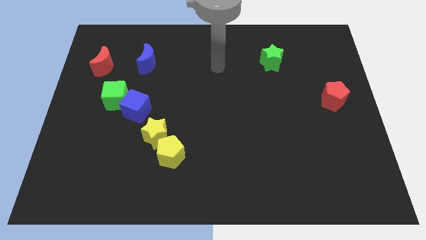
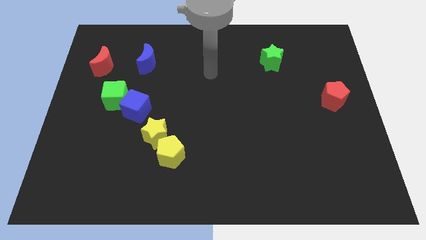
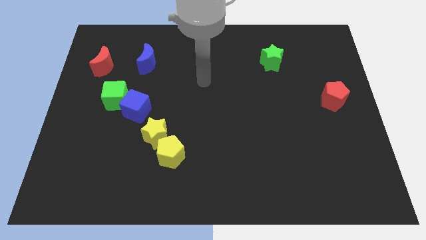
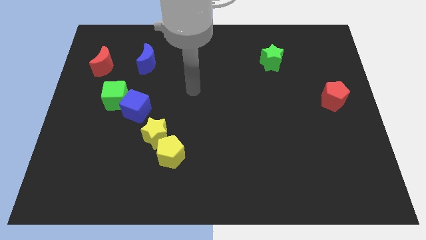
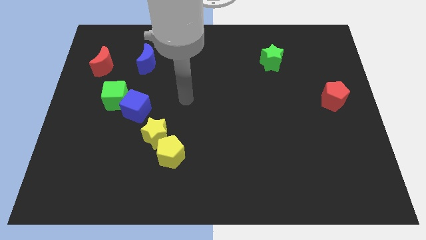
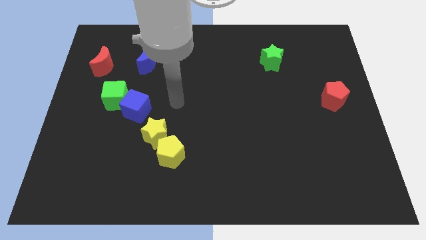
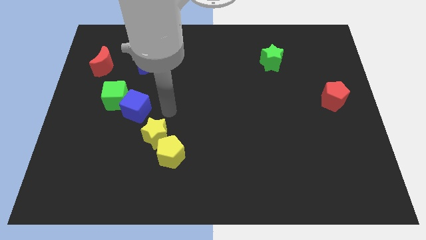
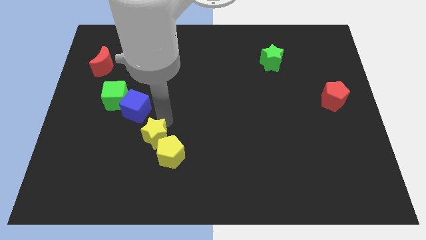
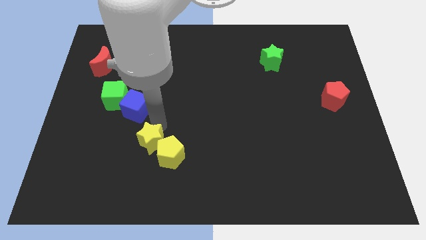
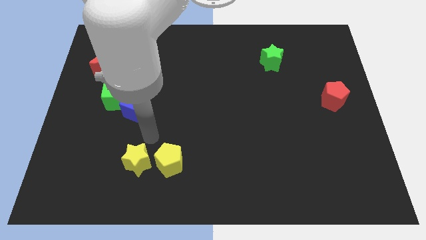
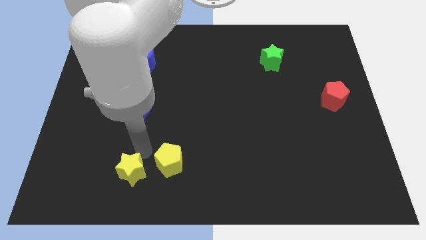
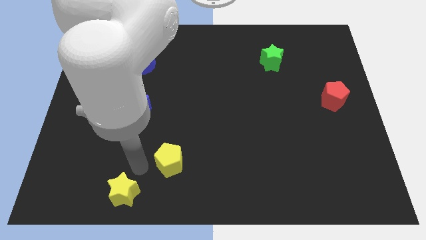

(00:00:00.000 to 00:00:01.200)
move the yellow pentagon away from the yellow star

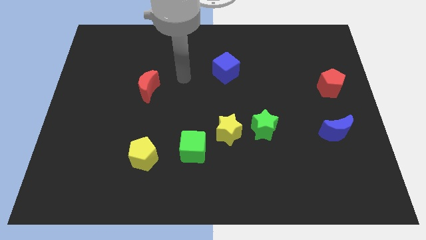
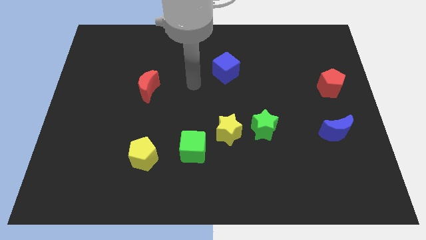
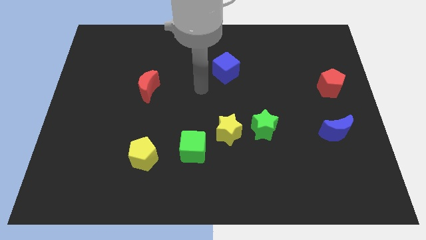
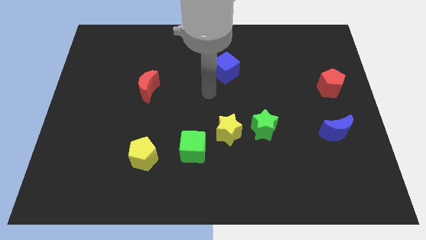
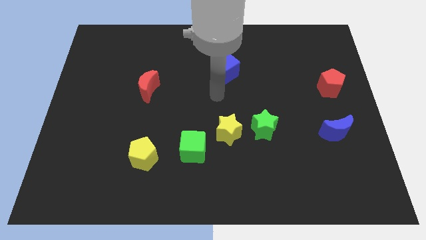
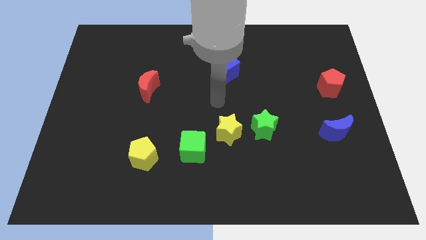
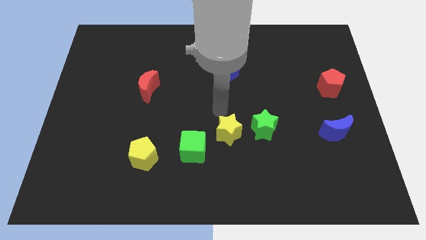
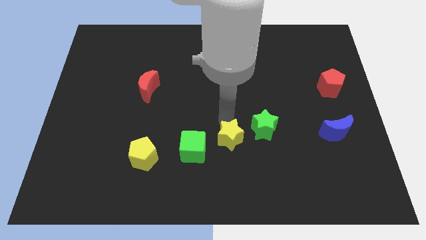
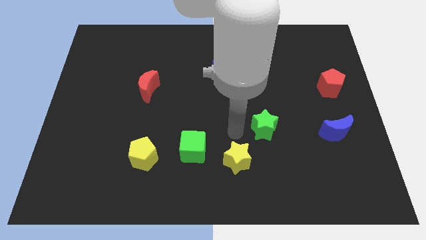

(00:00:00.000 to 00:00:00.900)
move the green star away from the yellow star

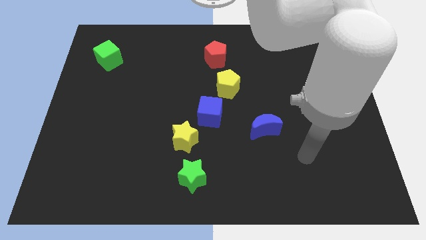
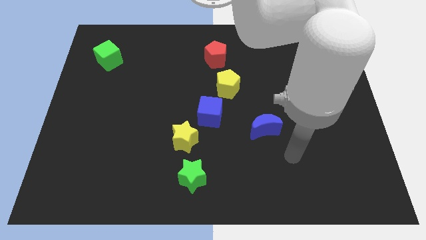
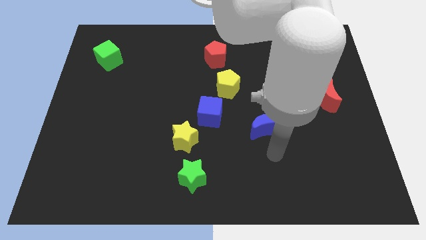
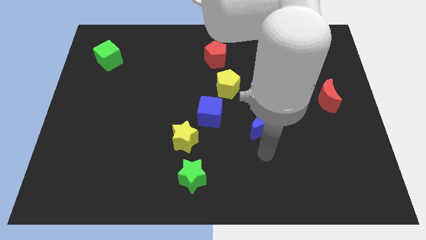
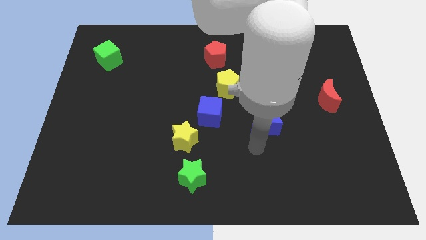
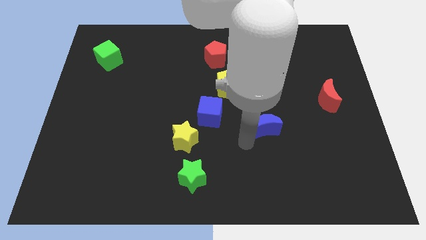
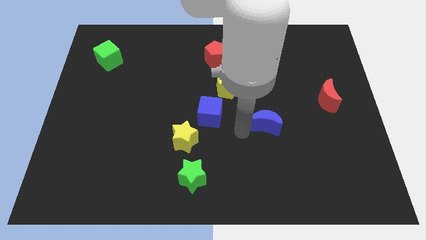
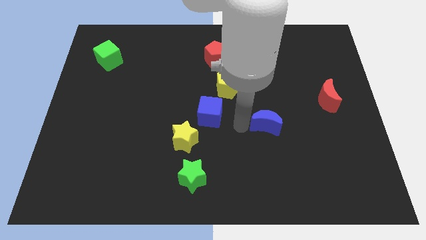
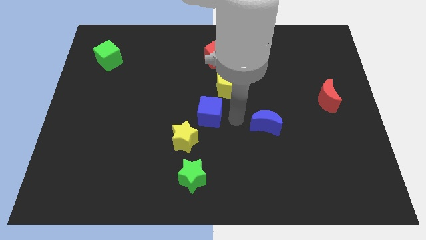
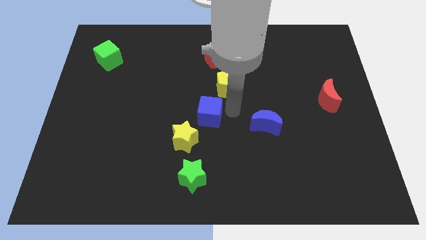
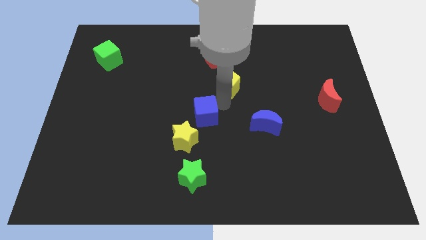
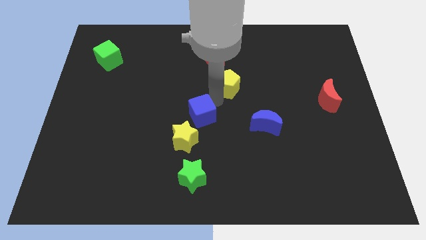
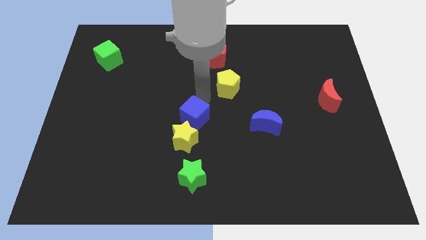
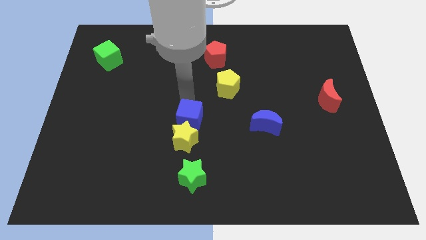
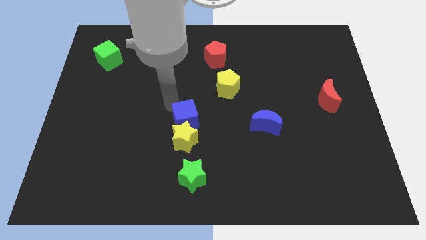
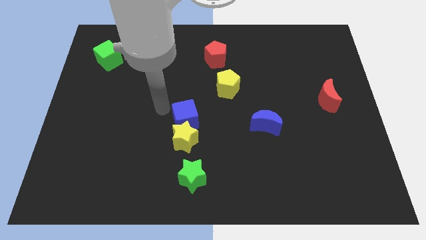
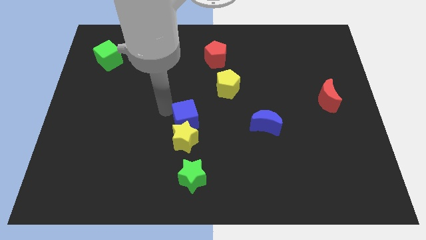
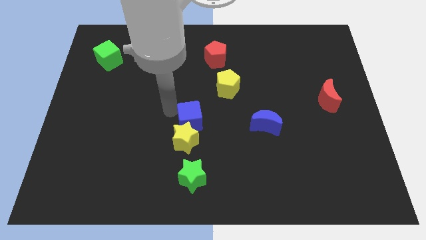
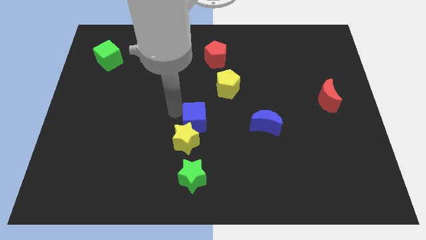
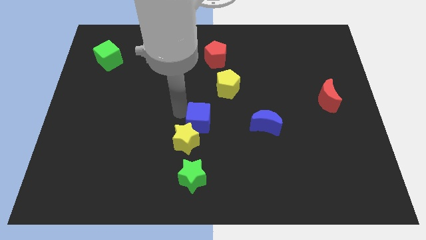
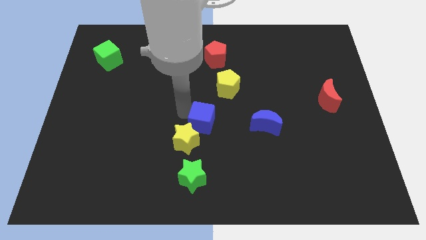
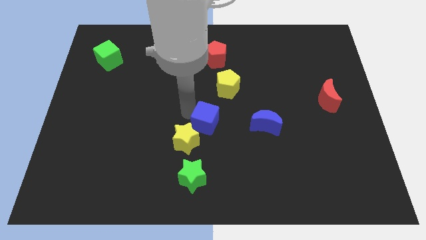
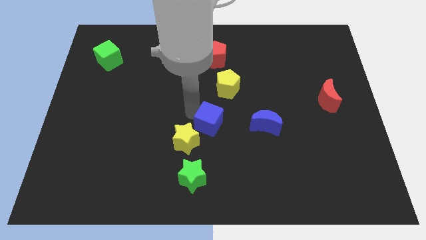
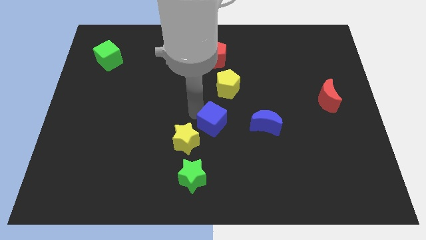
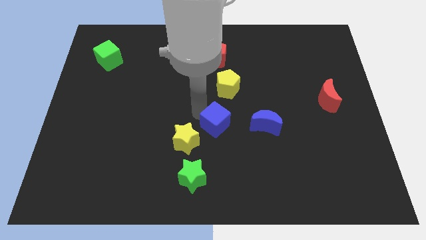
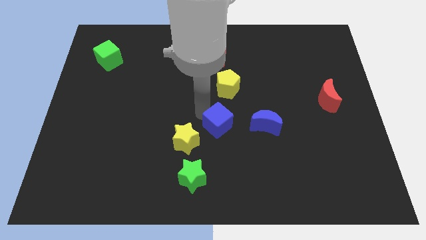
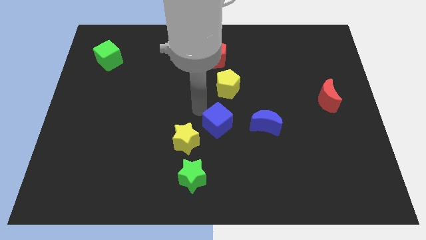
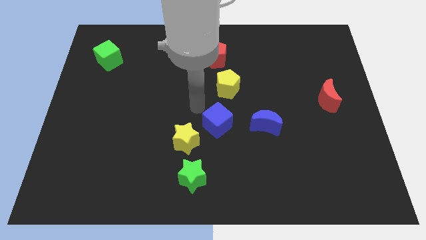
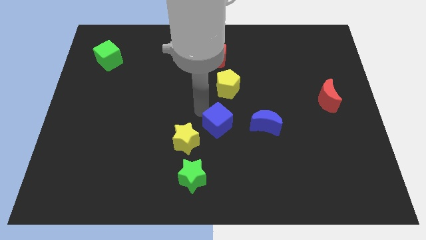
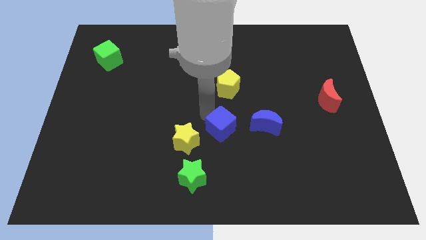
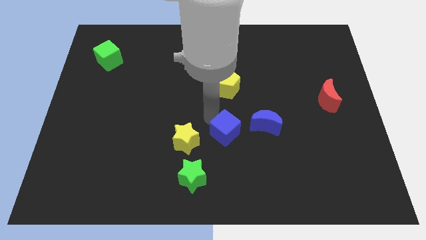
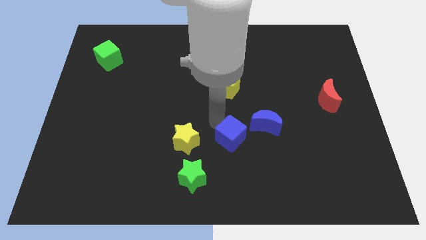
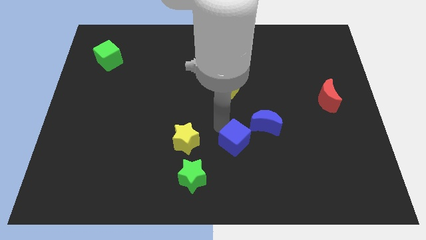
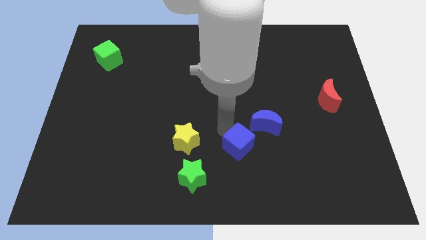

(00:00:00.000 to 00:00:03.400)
move the blue cube away from the yellow star and yellow pentagon

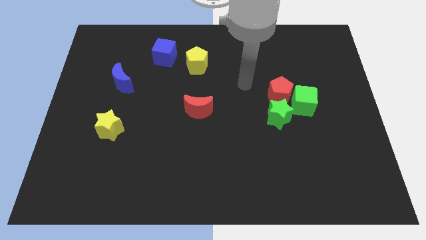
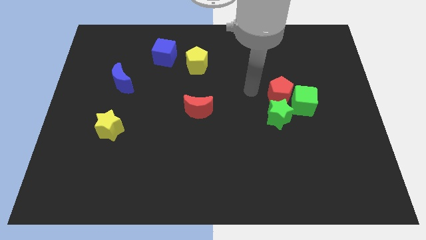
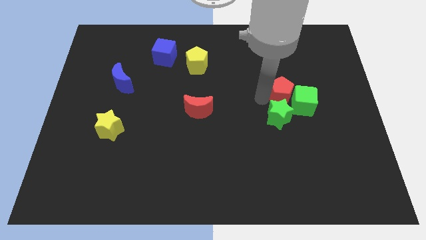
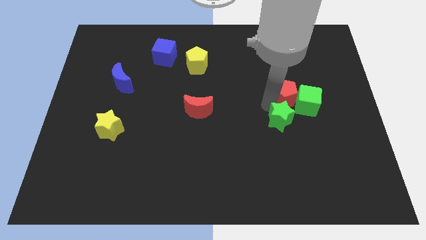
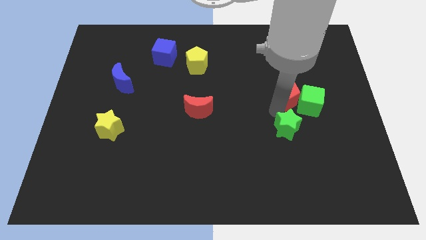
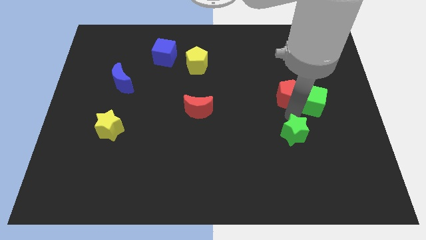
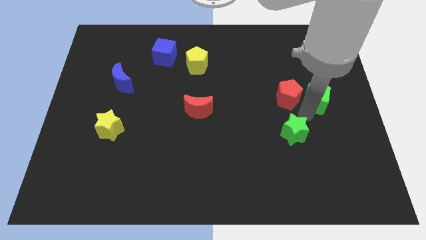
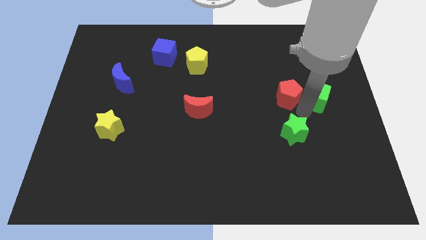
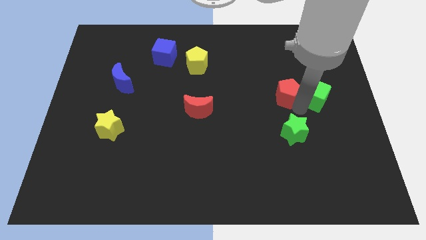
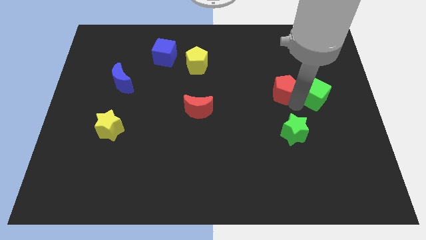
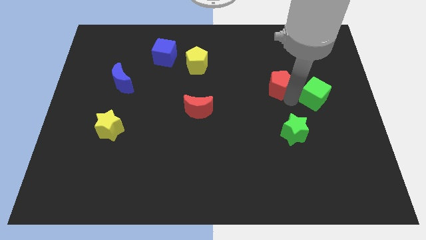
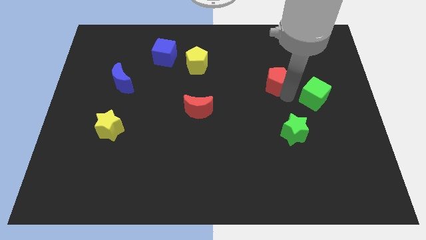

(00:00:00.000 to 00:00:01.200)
separate the red pentagon from the green cube and green star

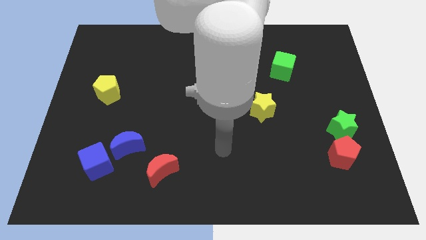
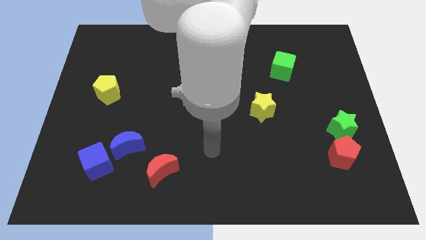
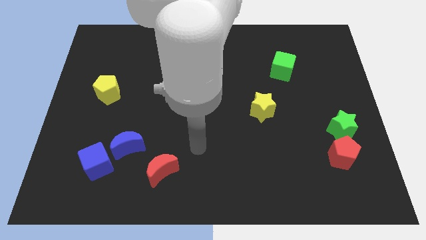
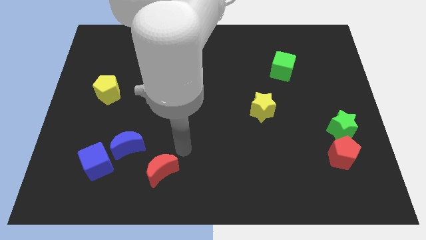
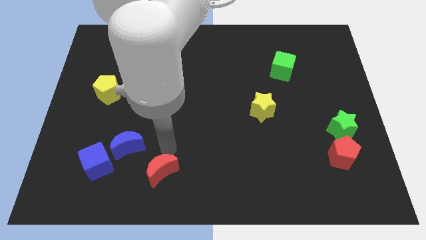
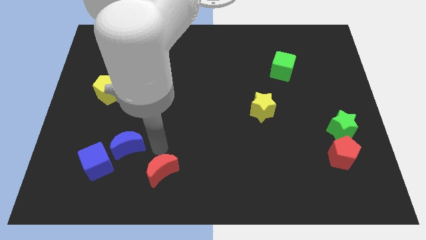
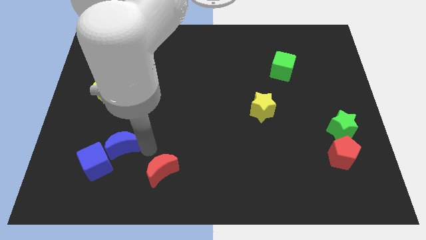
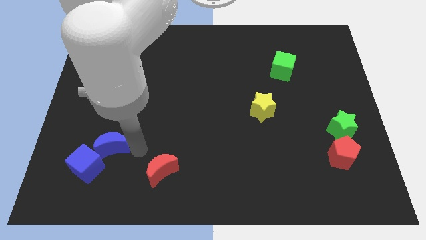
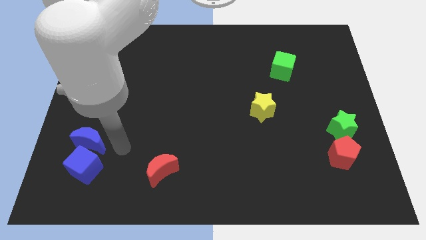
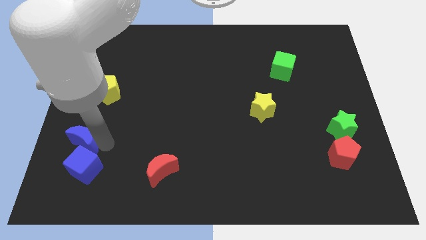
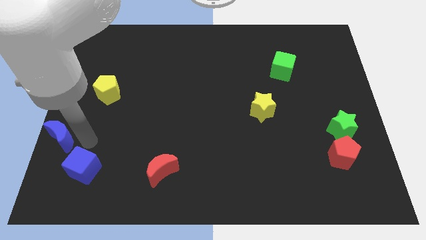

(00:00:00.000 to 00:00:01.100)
move the blue cube away from the blue moon

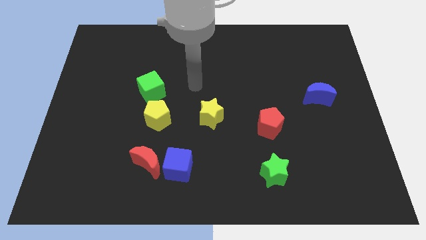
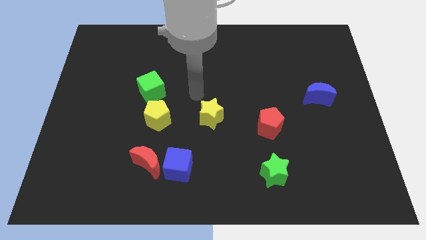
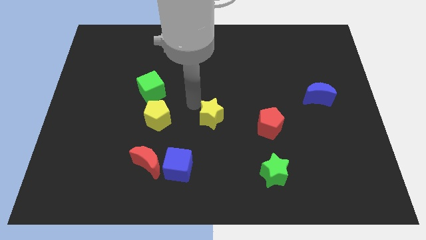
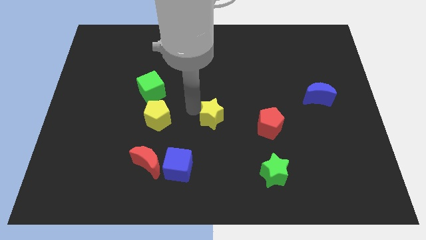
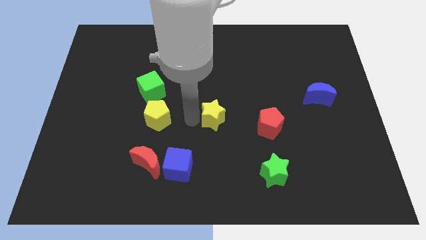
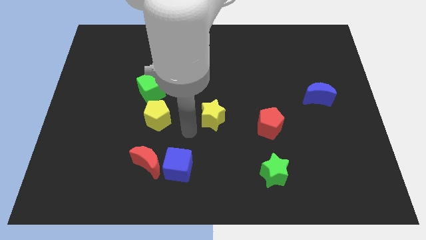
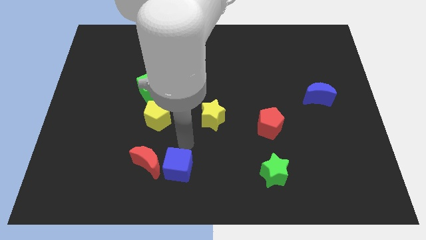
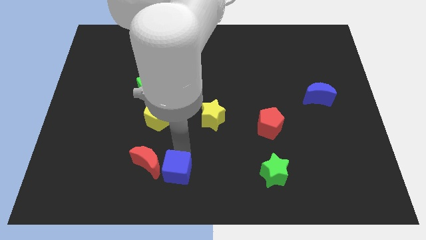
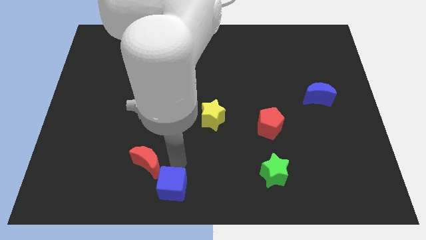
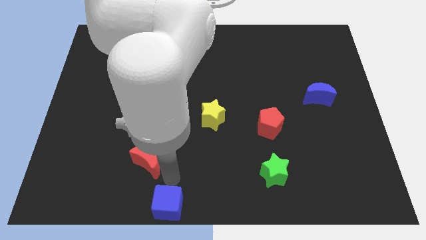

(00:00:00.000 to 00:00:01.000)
separate the red moon from the blue cube

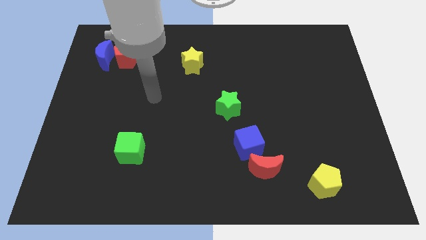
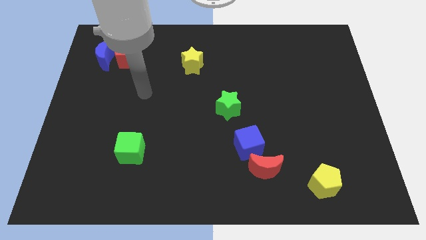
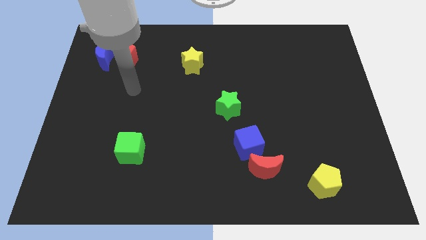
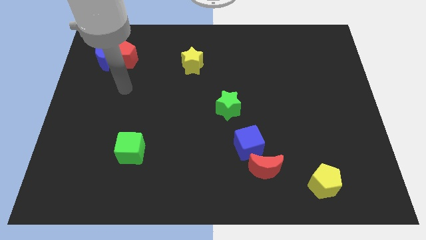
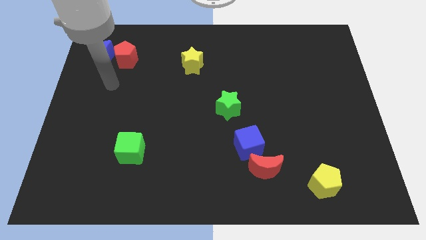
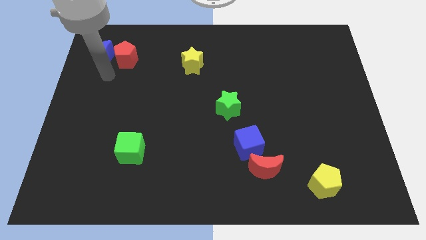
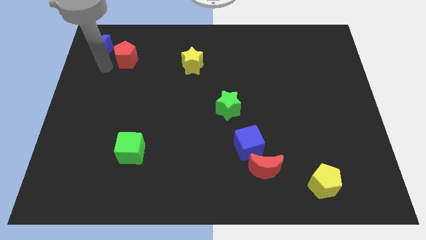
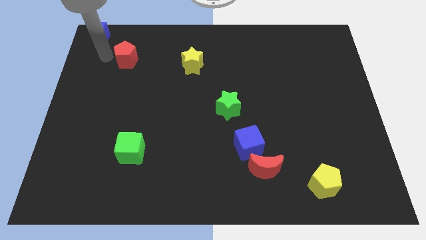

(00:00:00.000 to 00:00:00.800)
move the red pentagon away from the blue moon
